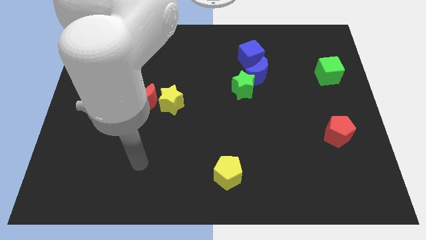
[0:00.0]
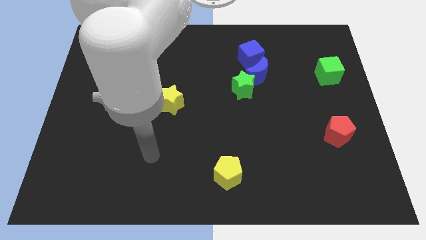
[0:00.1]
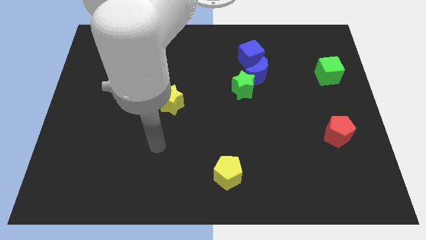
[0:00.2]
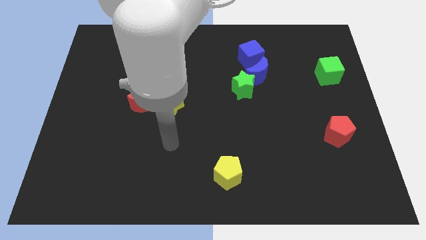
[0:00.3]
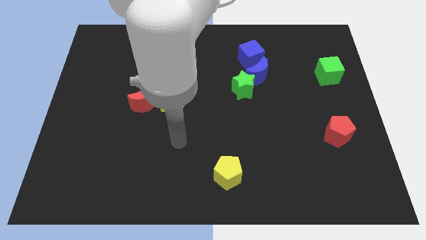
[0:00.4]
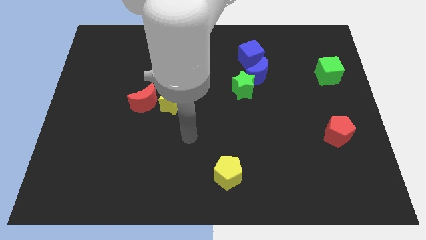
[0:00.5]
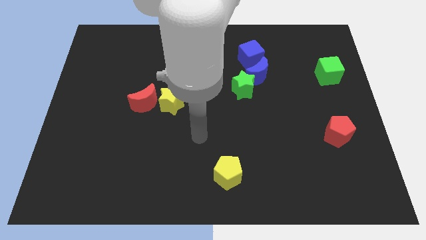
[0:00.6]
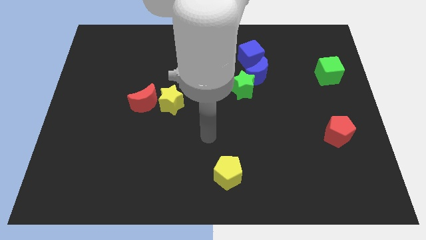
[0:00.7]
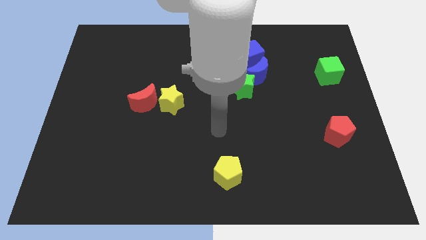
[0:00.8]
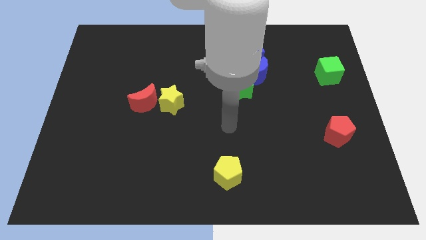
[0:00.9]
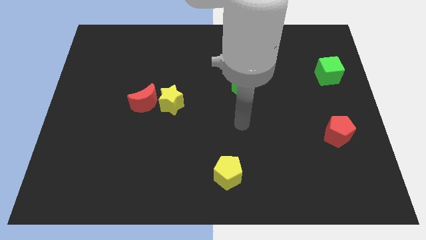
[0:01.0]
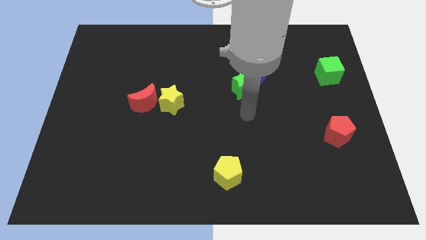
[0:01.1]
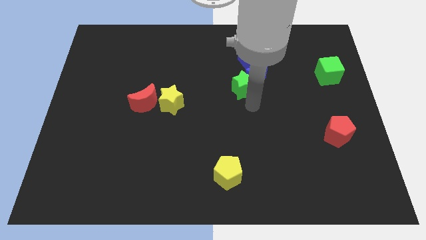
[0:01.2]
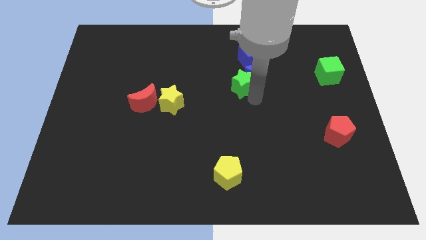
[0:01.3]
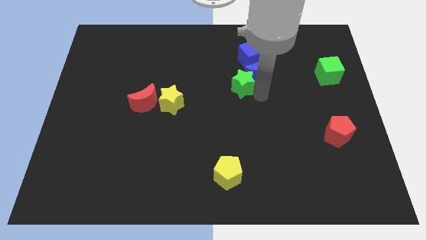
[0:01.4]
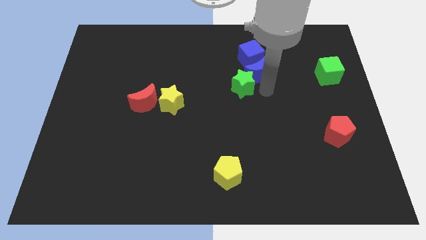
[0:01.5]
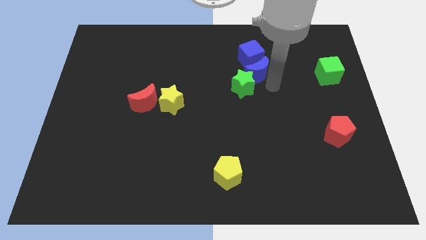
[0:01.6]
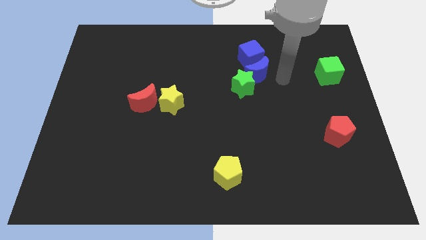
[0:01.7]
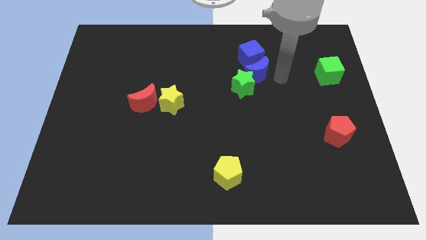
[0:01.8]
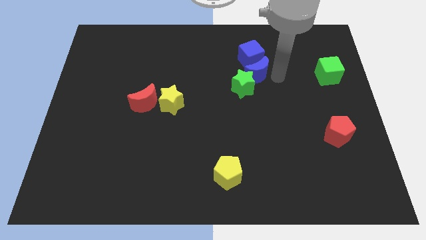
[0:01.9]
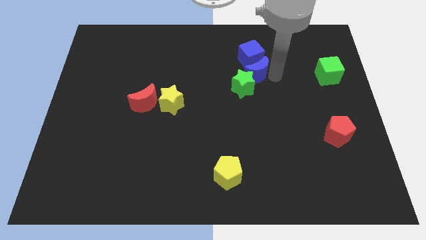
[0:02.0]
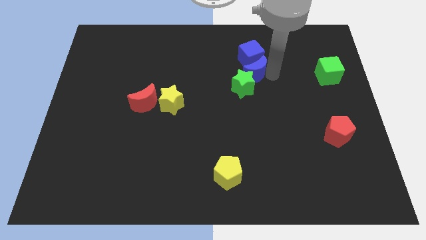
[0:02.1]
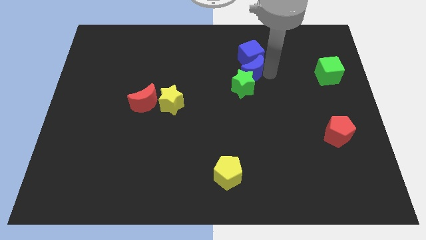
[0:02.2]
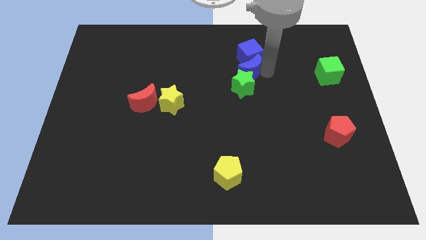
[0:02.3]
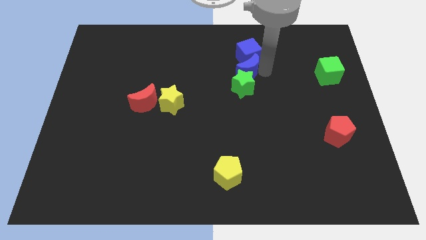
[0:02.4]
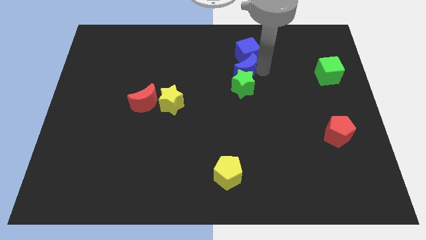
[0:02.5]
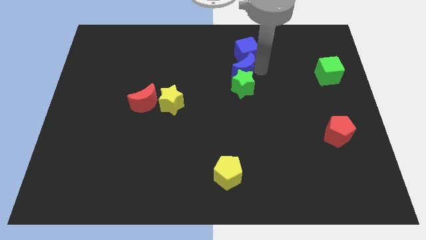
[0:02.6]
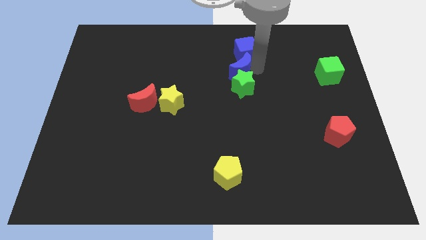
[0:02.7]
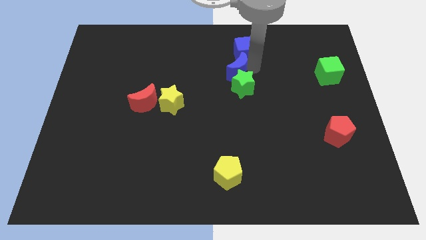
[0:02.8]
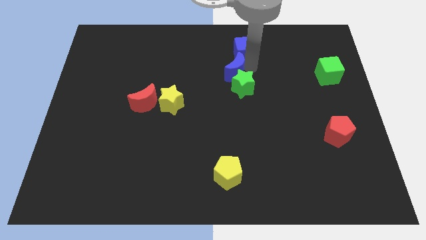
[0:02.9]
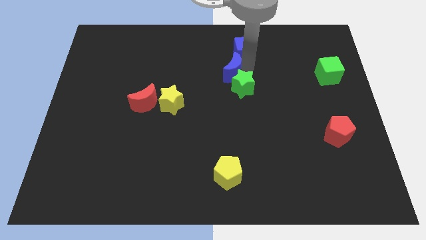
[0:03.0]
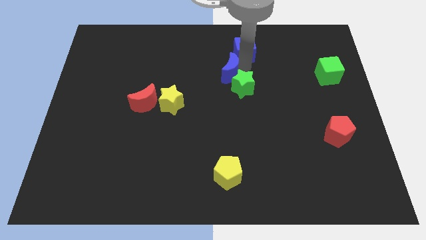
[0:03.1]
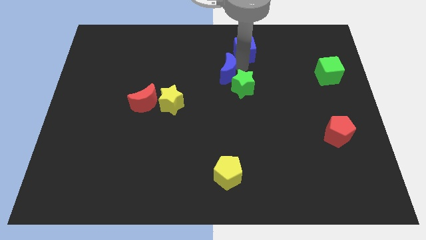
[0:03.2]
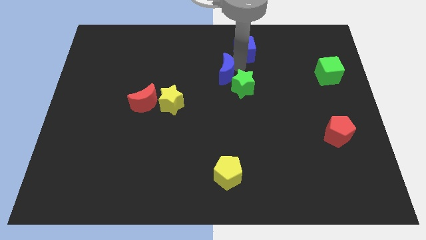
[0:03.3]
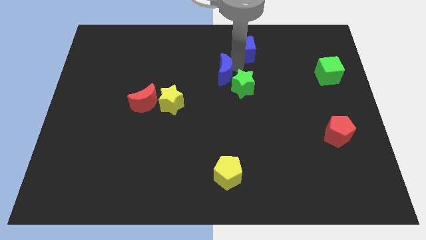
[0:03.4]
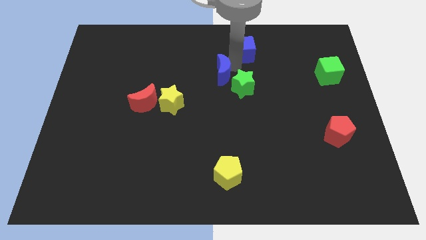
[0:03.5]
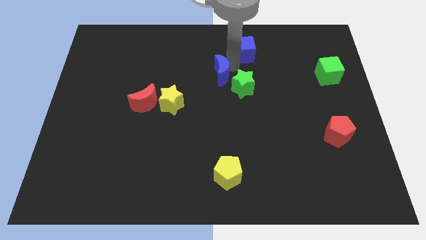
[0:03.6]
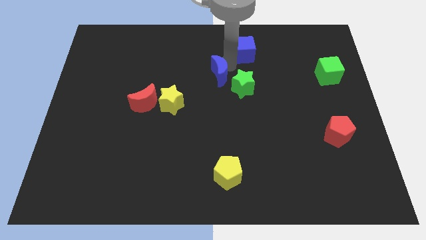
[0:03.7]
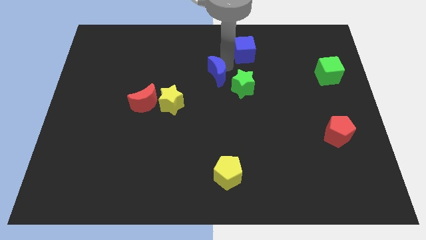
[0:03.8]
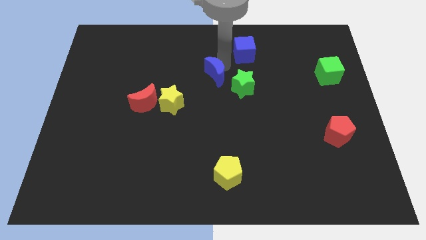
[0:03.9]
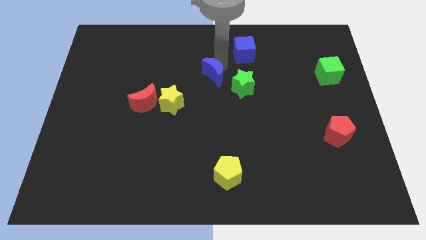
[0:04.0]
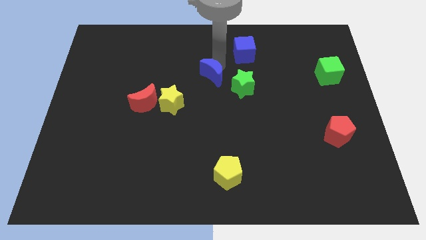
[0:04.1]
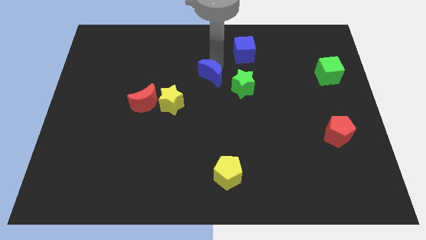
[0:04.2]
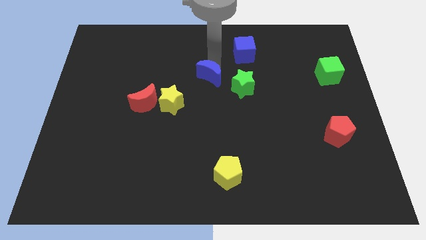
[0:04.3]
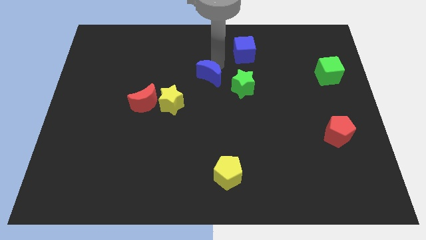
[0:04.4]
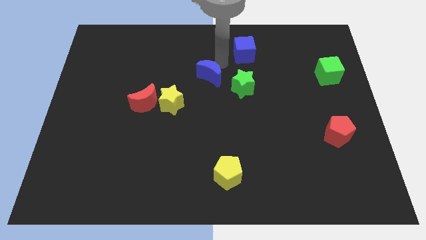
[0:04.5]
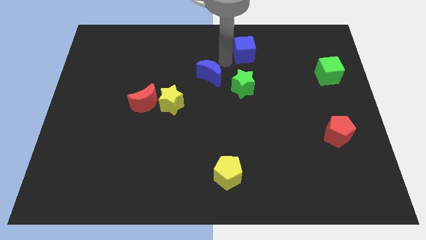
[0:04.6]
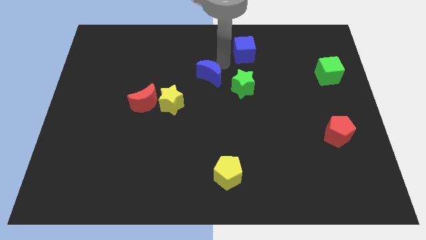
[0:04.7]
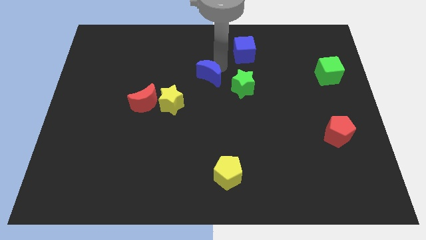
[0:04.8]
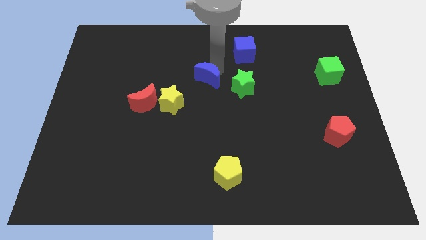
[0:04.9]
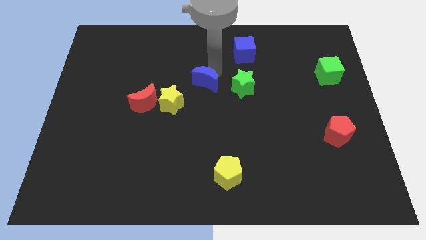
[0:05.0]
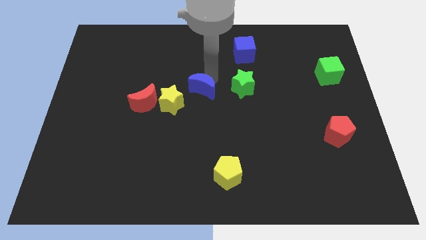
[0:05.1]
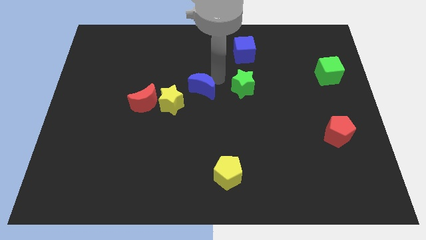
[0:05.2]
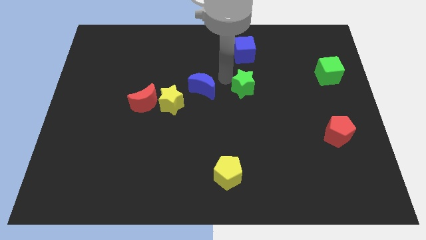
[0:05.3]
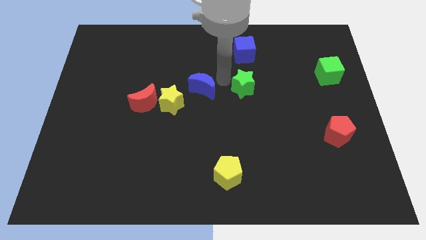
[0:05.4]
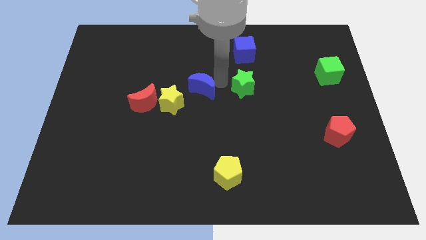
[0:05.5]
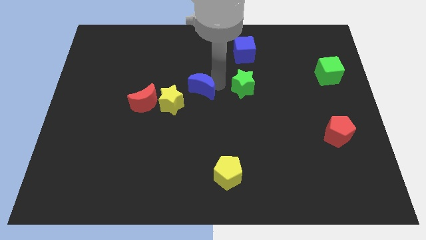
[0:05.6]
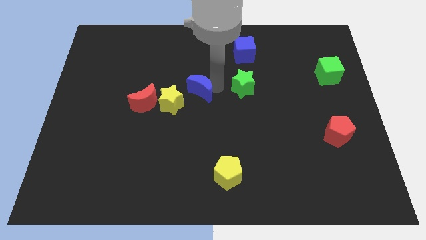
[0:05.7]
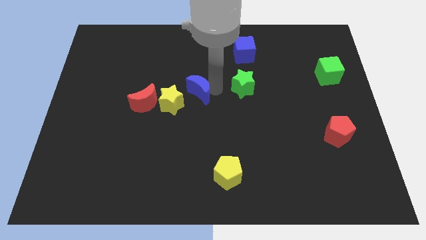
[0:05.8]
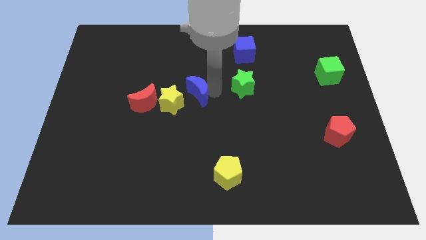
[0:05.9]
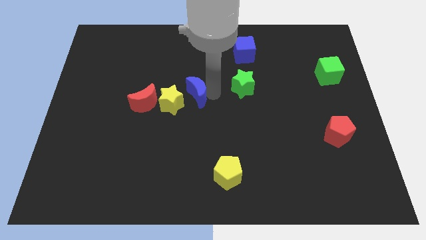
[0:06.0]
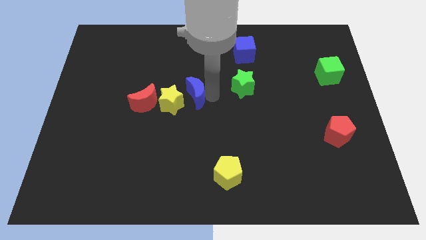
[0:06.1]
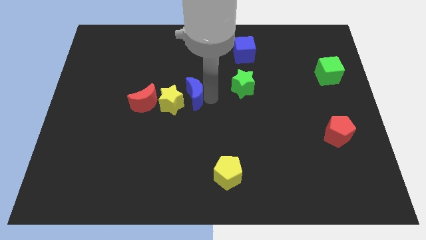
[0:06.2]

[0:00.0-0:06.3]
move the blue moon to the yellow star

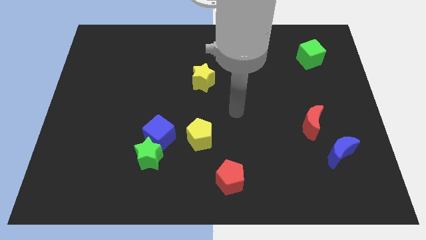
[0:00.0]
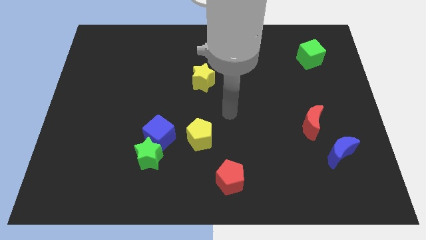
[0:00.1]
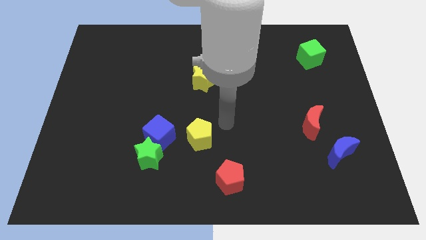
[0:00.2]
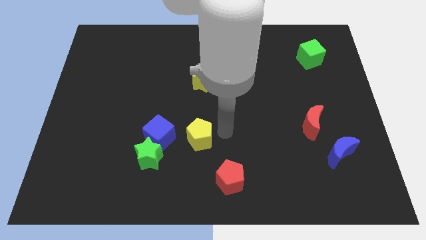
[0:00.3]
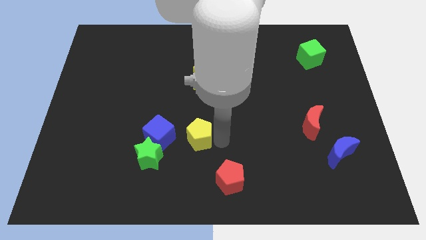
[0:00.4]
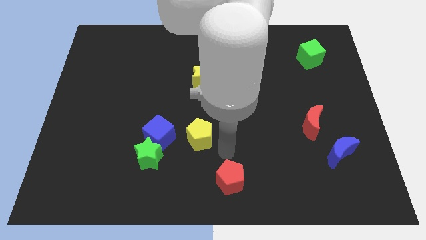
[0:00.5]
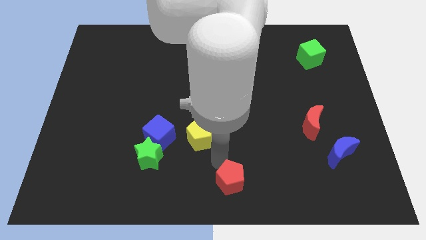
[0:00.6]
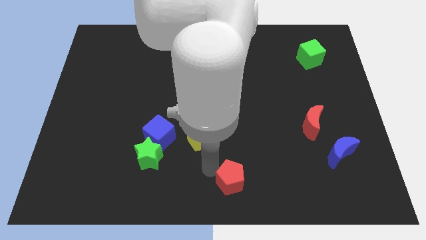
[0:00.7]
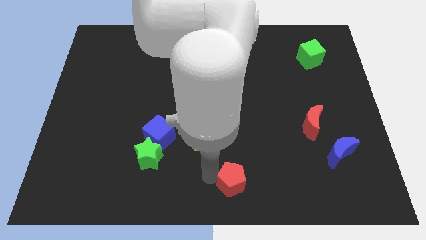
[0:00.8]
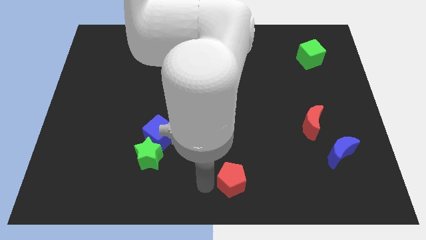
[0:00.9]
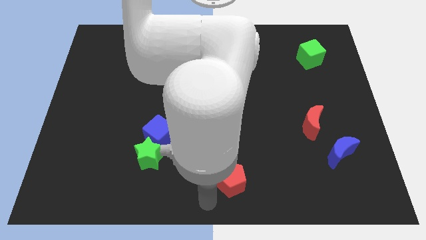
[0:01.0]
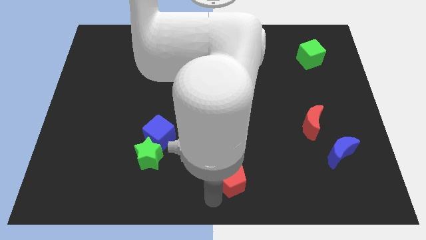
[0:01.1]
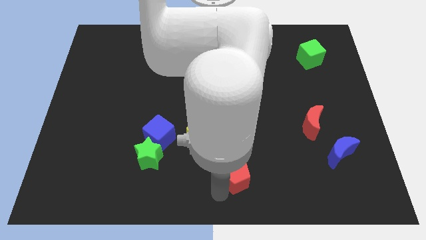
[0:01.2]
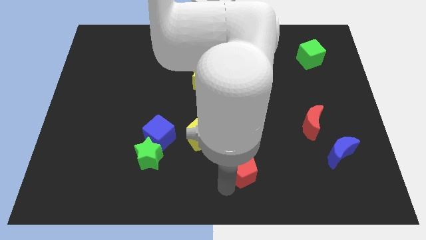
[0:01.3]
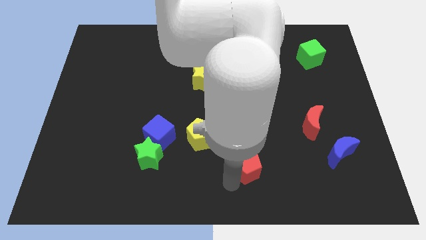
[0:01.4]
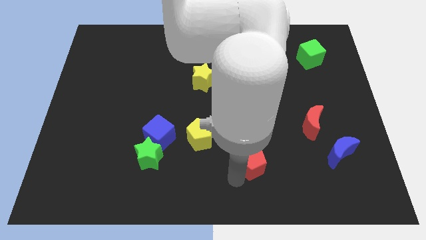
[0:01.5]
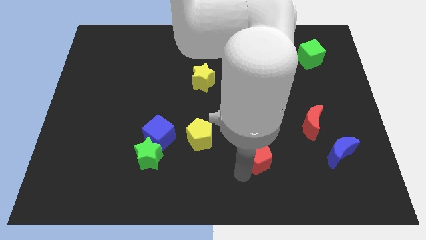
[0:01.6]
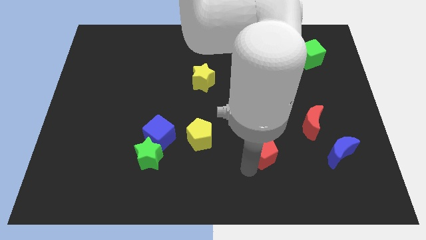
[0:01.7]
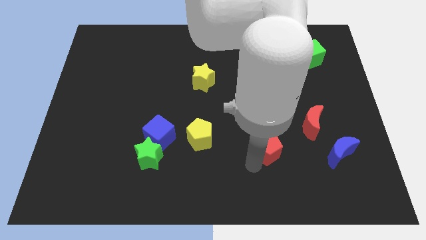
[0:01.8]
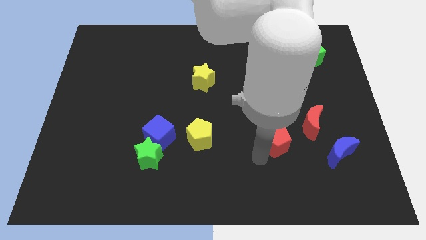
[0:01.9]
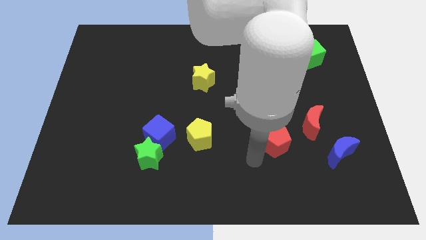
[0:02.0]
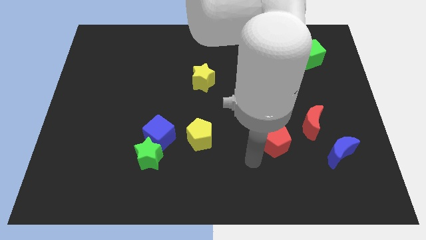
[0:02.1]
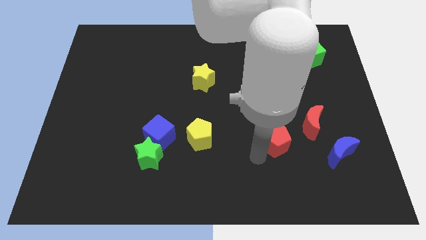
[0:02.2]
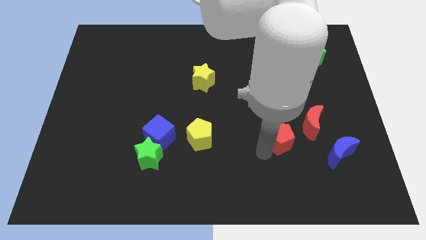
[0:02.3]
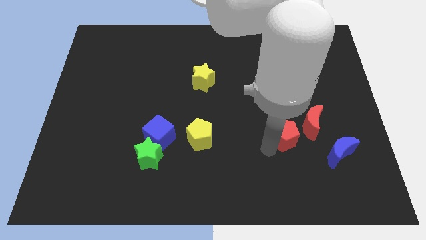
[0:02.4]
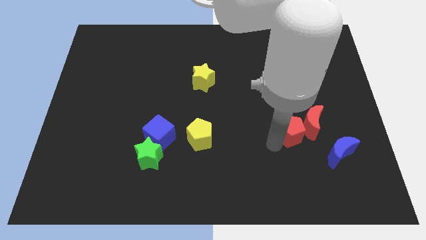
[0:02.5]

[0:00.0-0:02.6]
push the red pentagon towards the red moon
